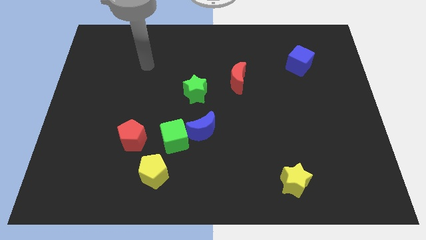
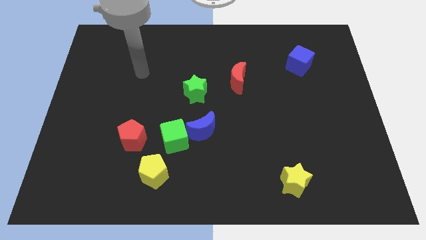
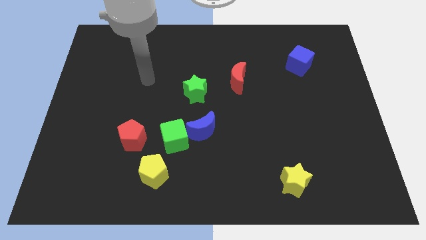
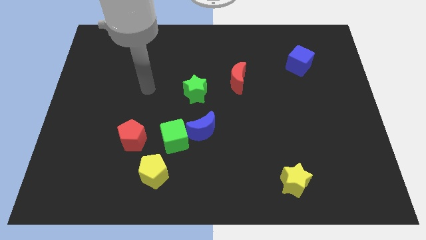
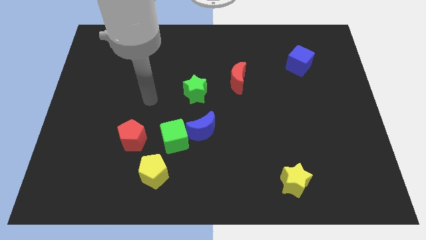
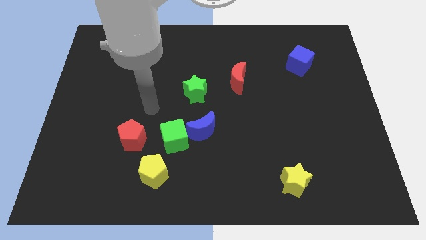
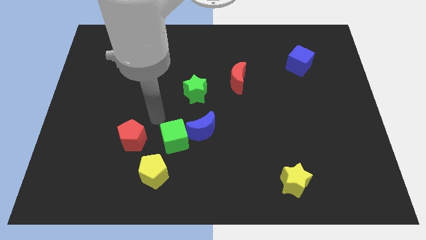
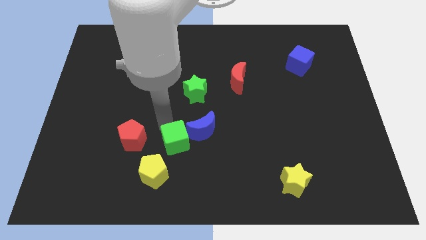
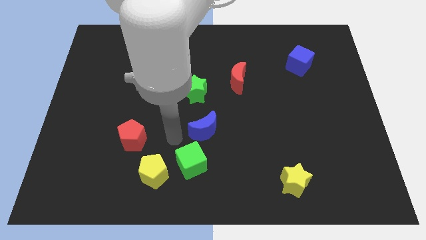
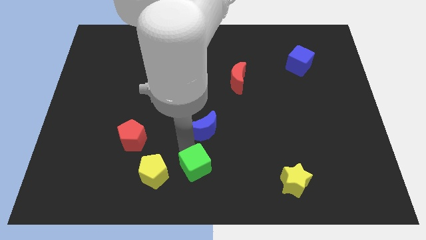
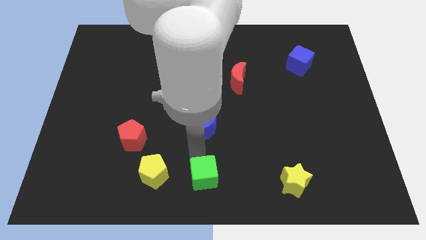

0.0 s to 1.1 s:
move the blue moon away from the green cube

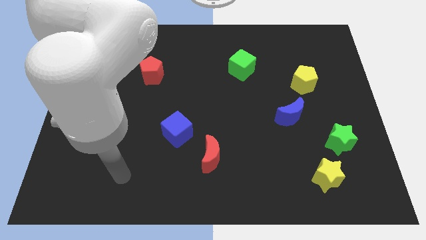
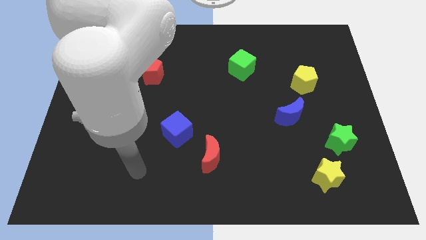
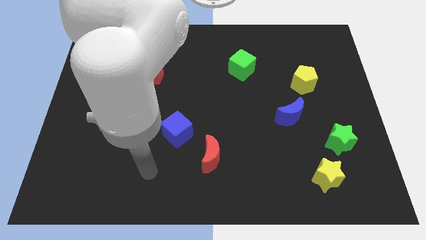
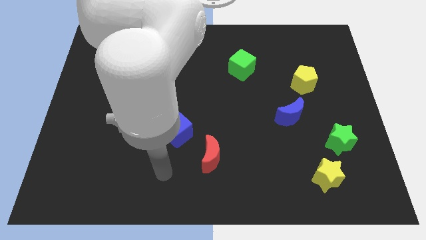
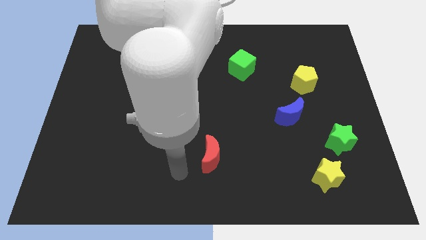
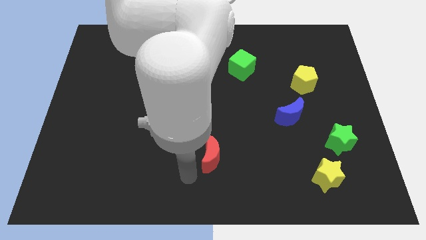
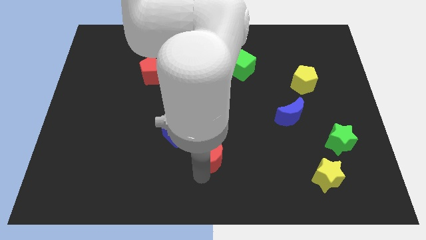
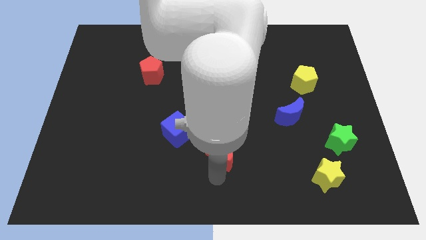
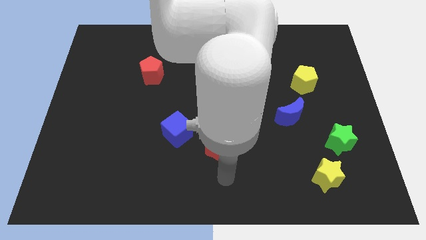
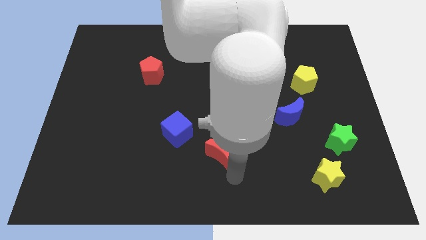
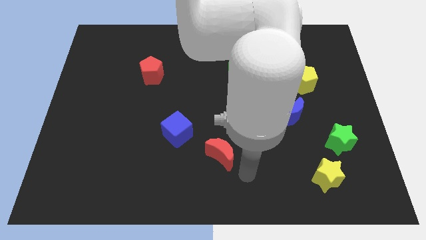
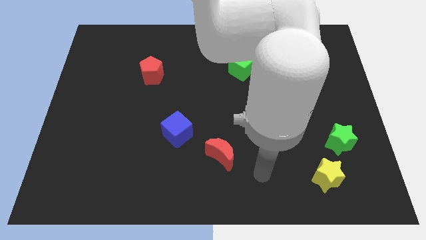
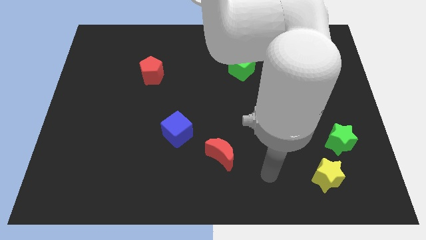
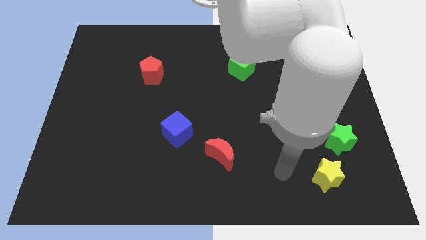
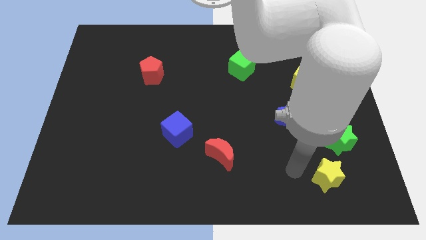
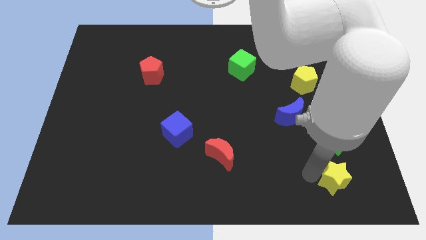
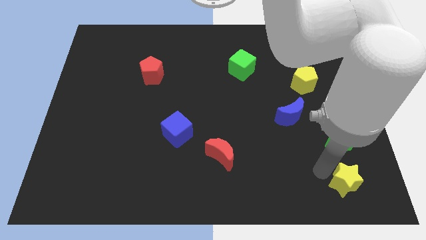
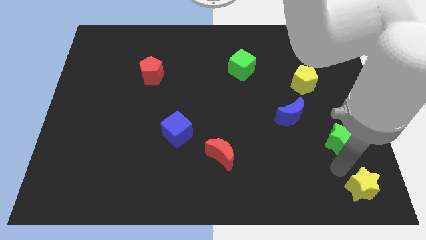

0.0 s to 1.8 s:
pull the green star apart from the yellow star

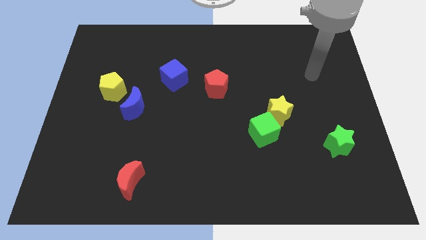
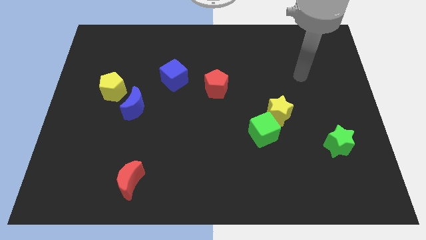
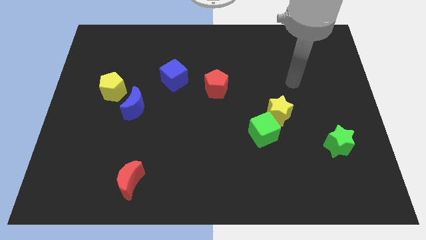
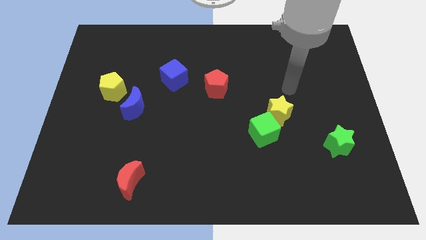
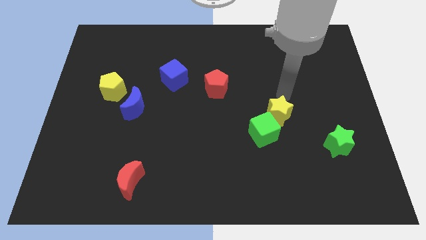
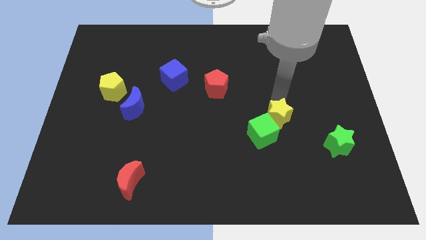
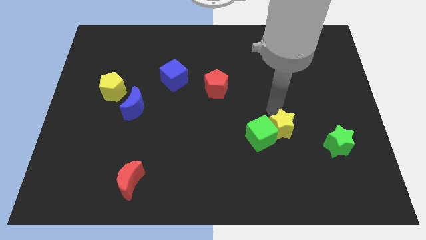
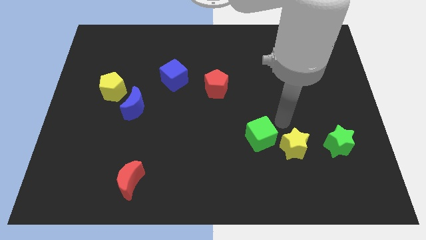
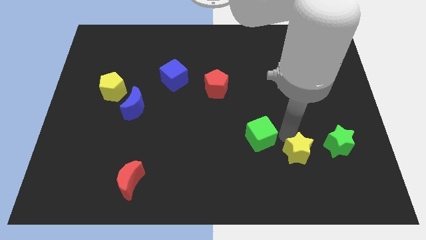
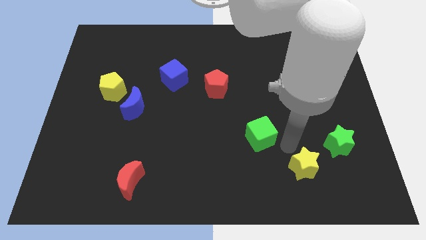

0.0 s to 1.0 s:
move the green cube away from the yellow star

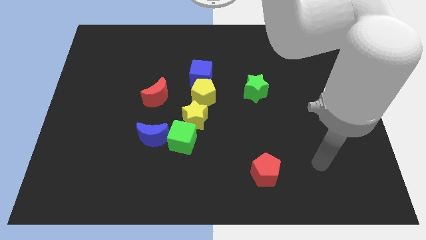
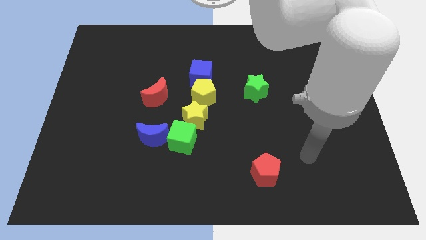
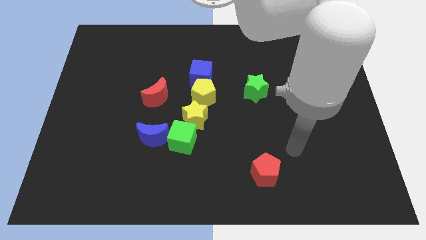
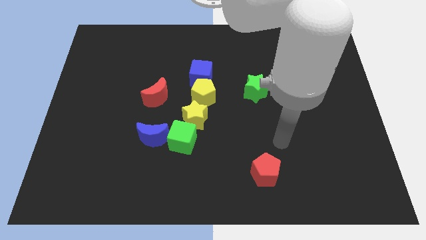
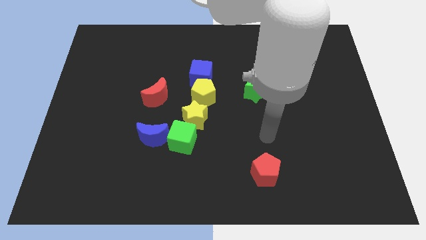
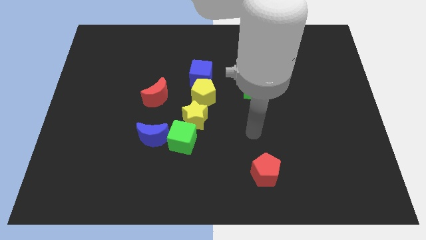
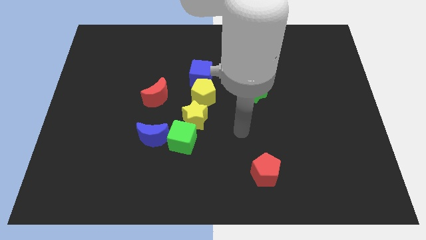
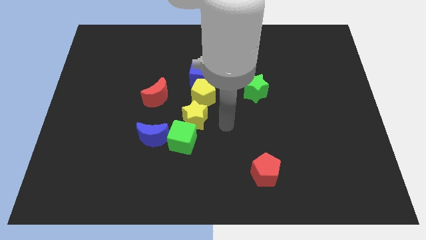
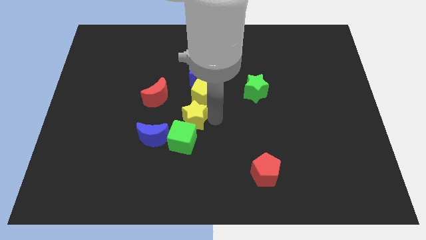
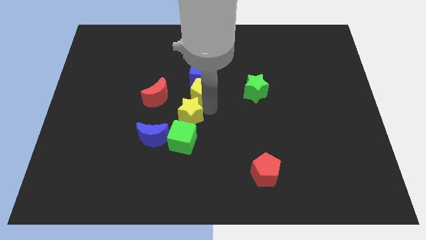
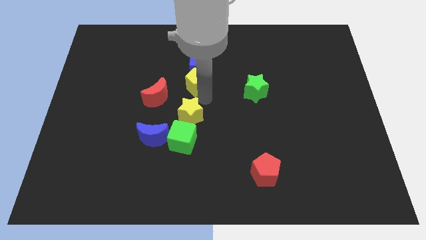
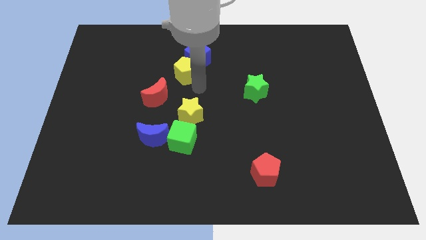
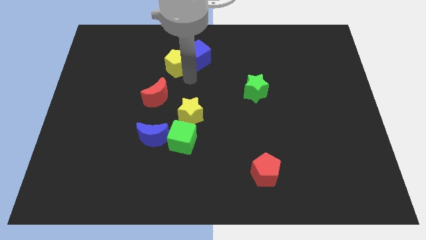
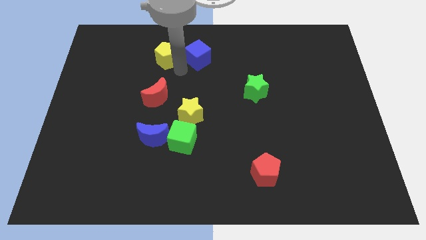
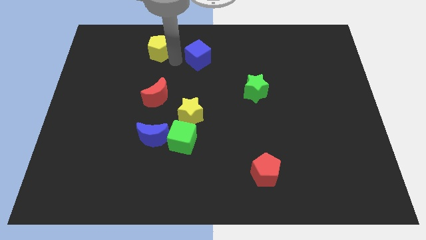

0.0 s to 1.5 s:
move the blue cube away from the yellow pentagon

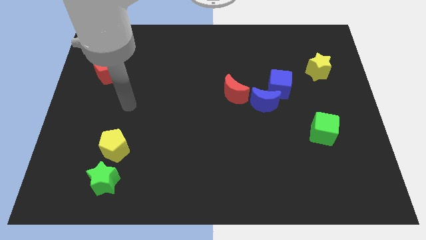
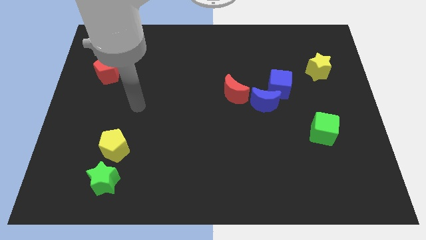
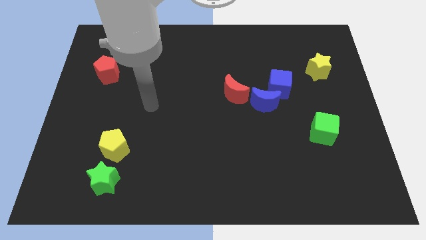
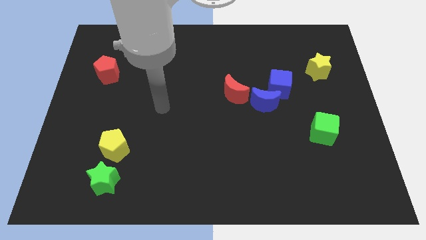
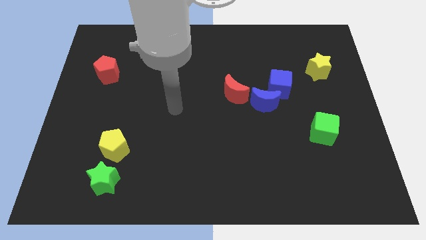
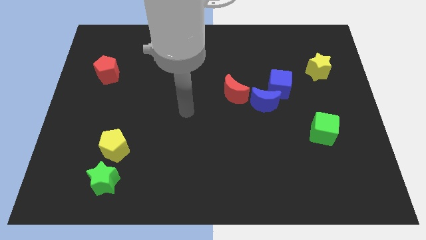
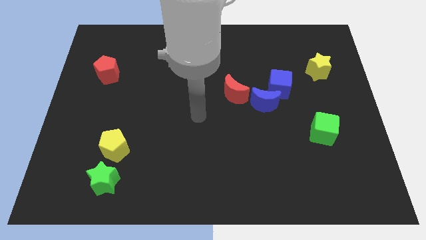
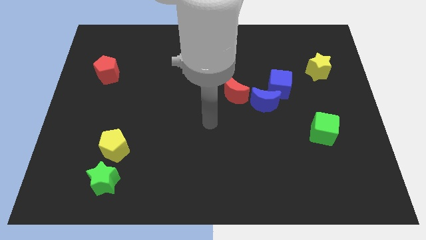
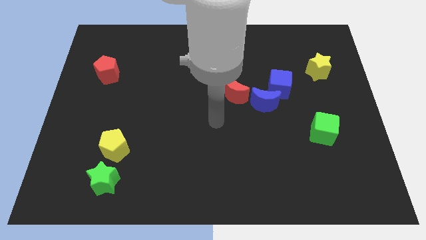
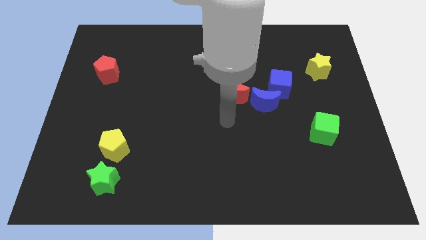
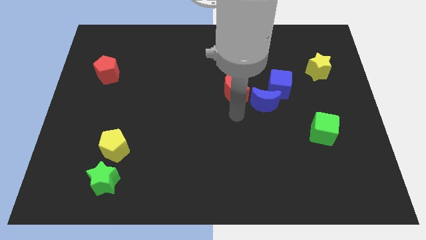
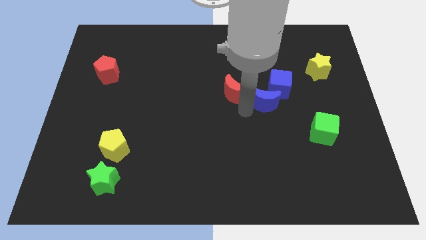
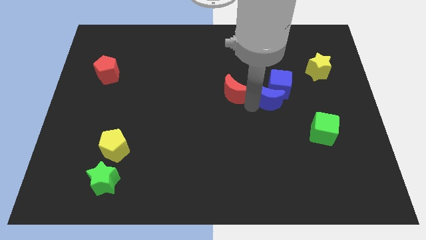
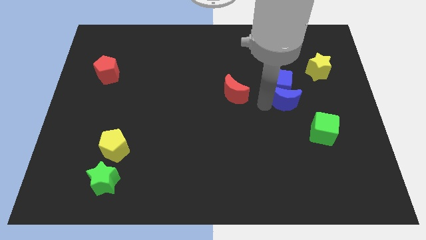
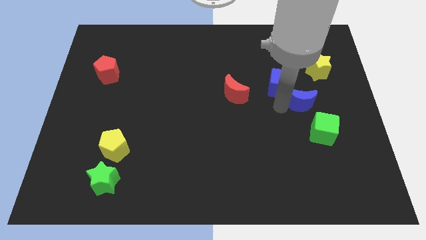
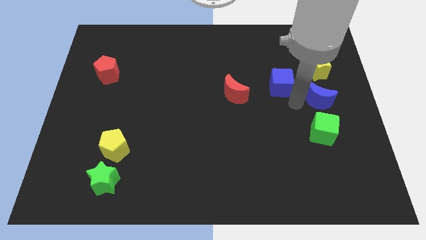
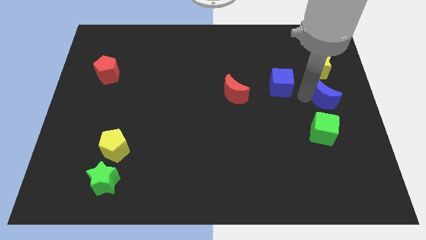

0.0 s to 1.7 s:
pull the blue cube apart from the blue moon

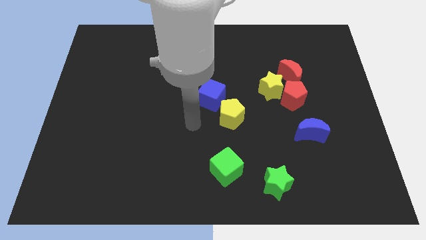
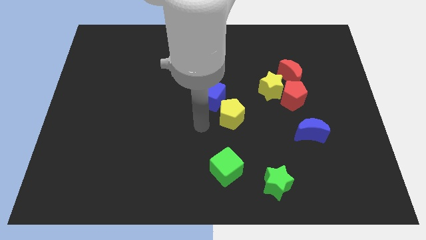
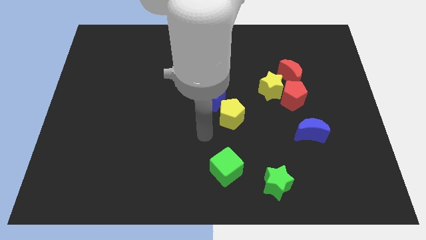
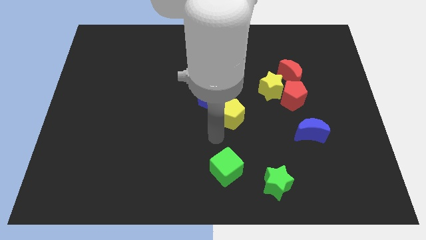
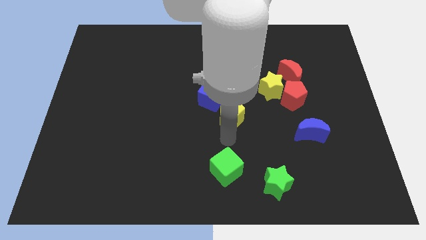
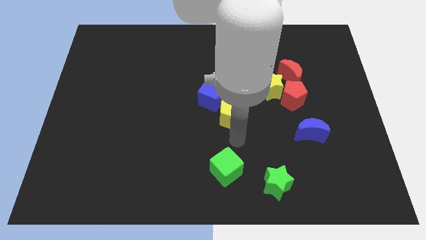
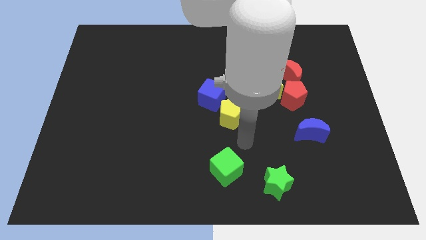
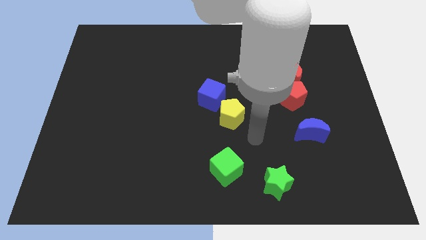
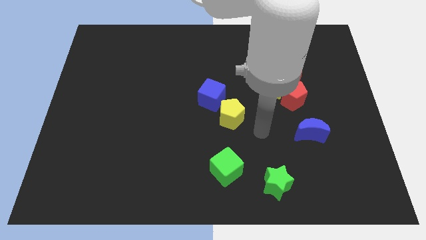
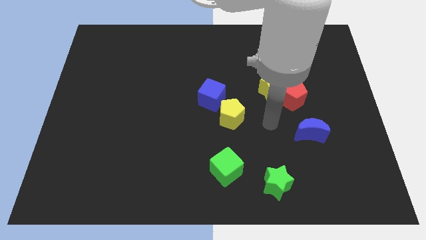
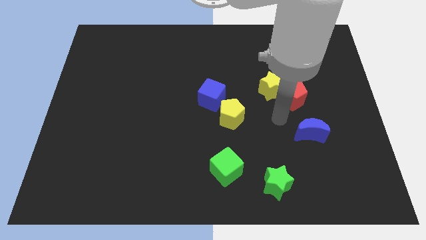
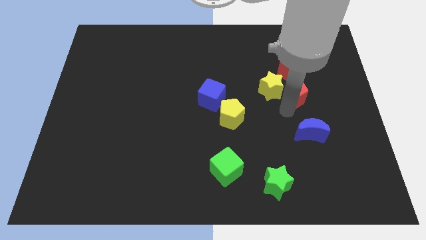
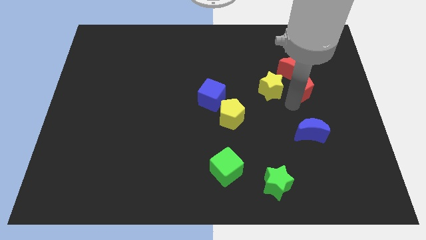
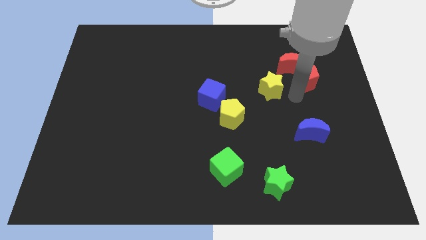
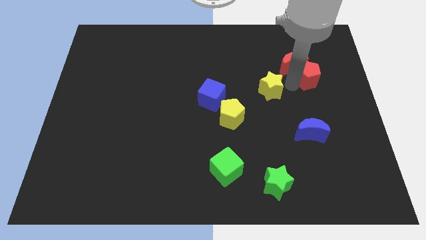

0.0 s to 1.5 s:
separate the yellow star from the red pentagon and red moon

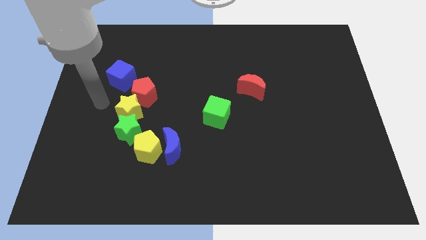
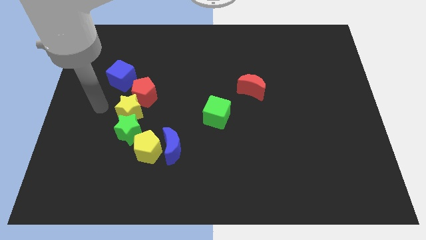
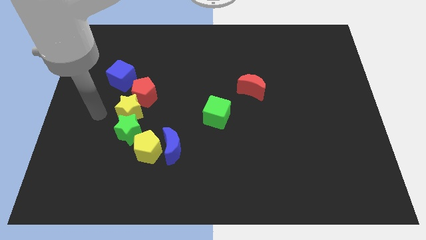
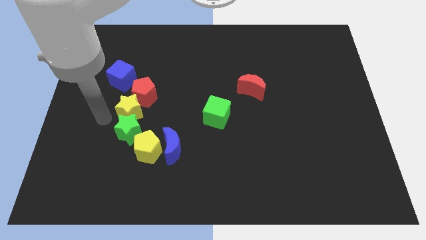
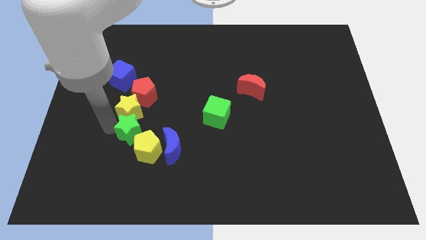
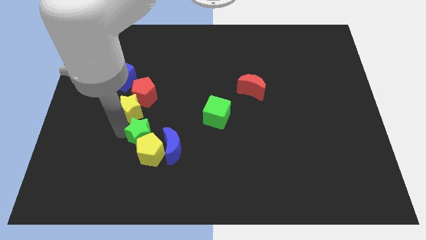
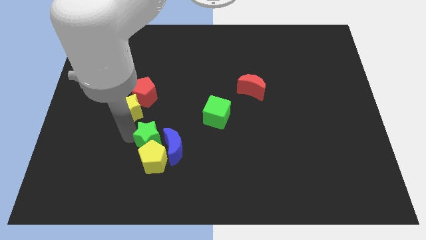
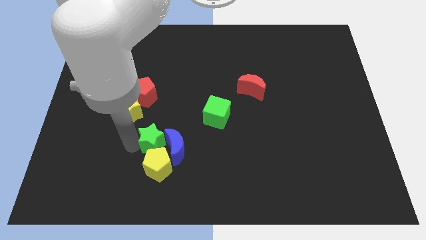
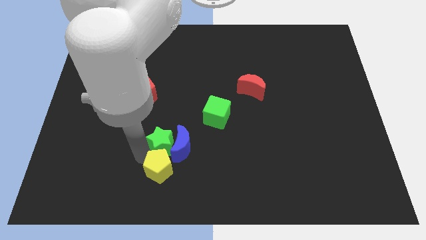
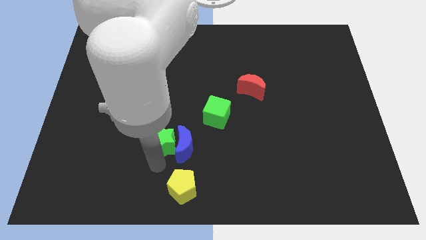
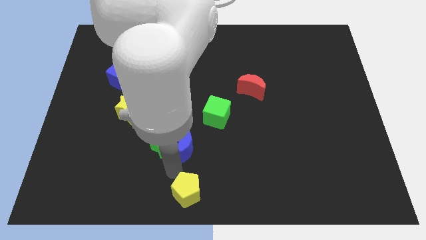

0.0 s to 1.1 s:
pull the blue moon apart from the yellow pentagon
